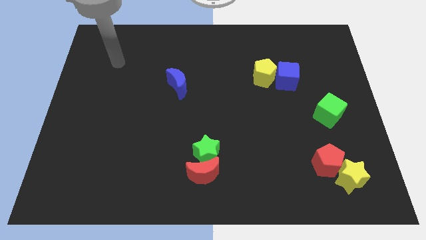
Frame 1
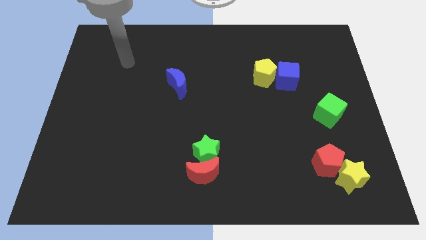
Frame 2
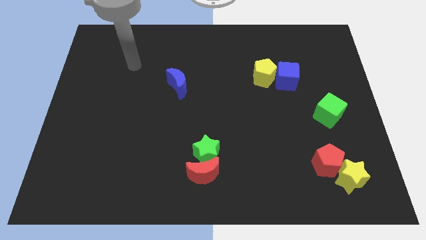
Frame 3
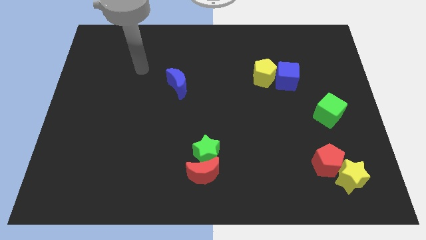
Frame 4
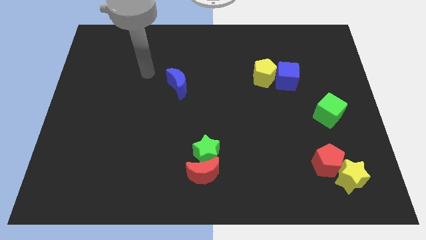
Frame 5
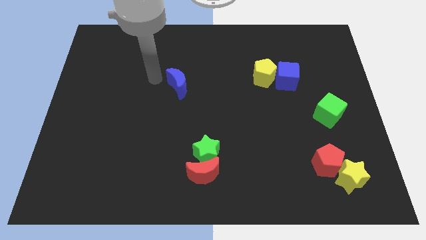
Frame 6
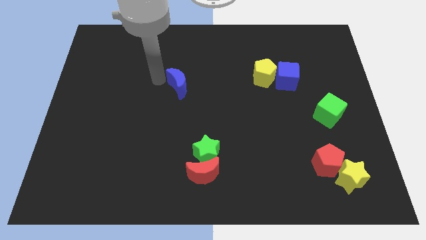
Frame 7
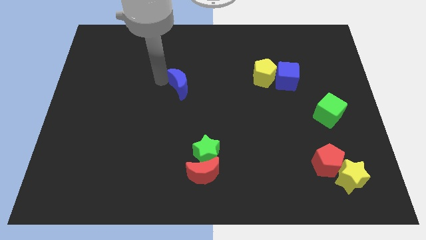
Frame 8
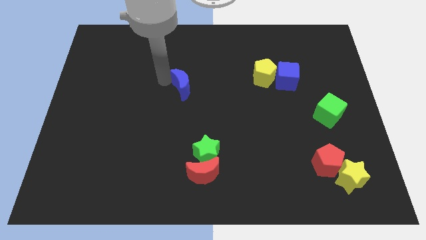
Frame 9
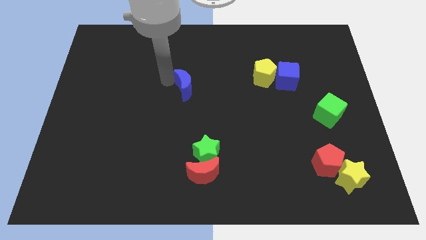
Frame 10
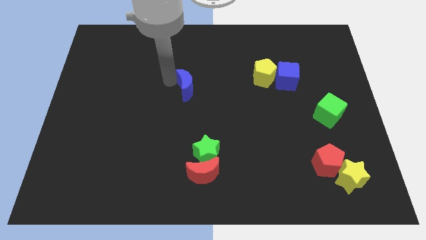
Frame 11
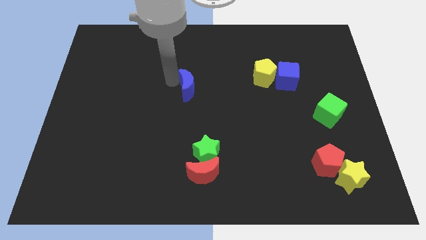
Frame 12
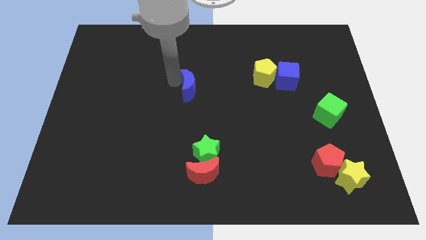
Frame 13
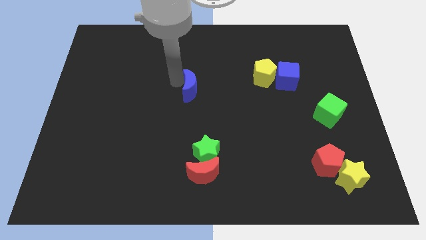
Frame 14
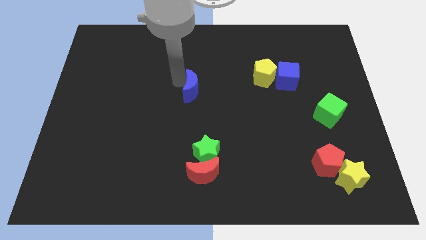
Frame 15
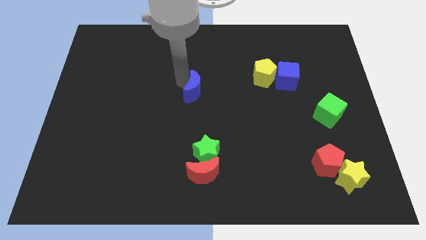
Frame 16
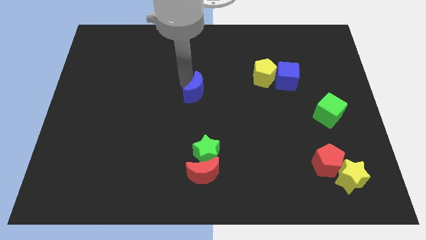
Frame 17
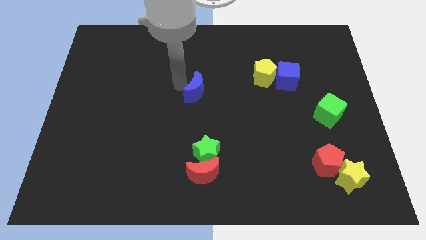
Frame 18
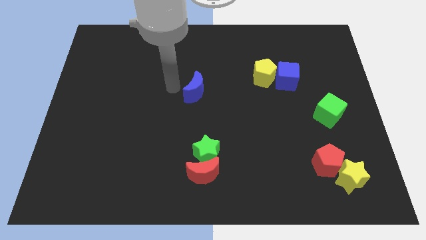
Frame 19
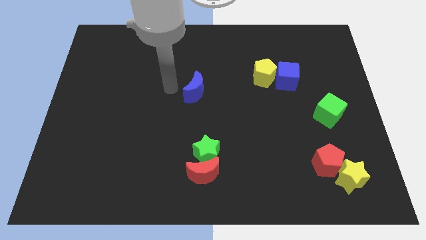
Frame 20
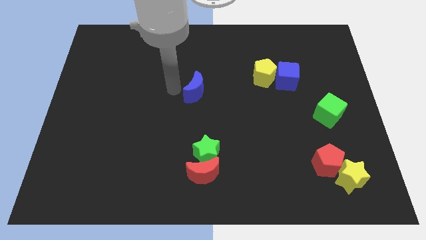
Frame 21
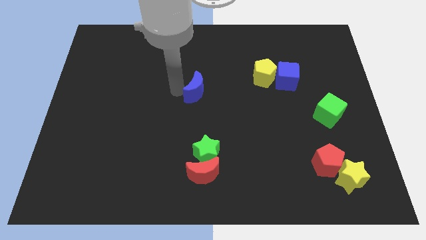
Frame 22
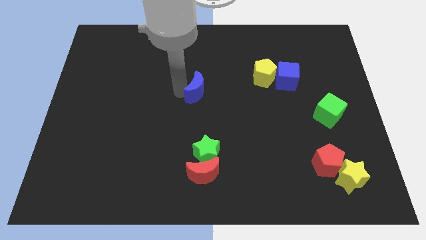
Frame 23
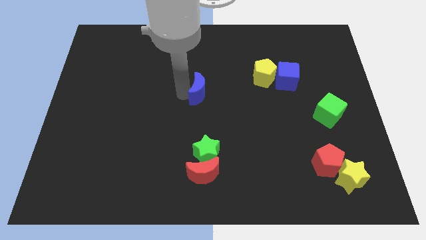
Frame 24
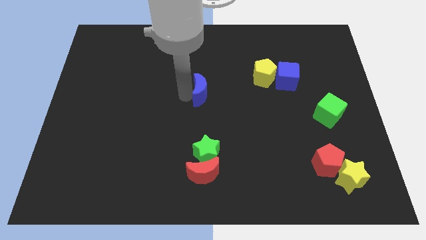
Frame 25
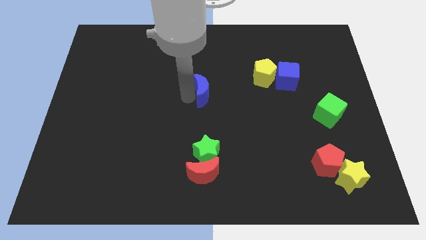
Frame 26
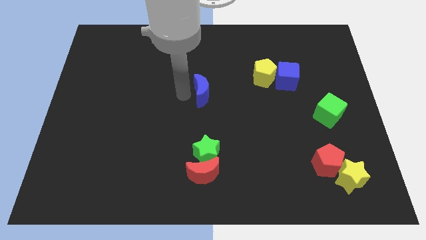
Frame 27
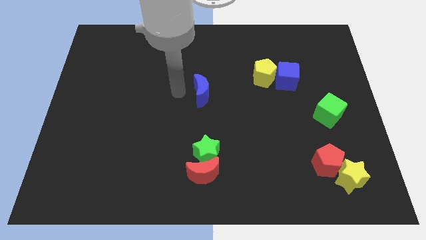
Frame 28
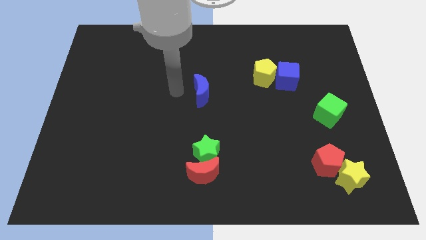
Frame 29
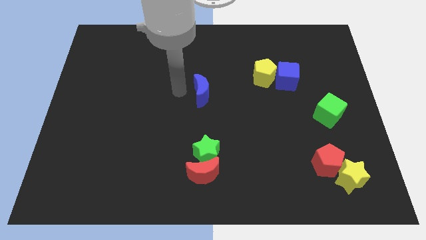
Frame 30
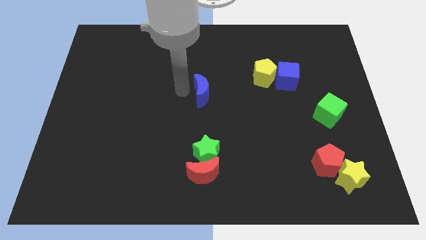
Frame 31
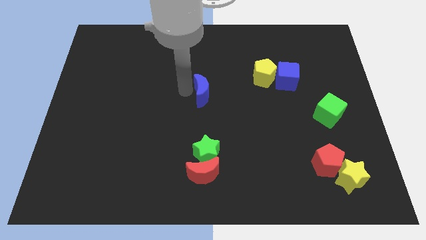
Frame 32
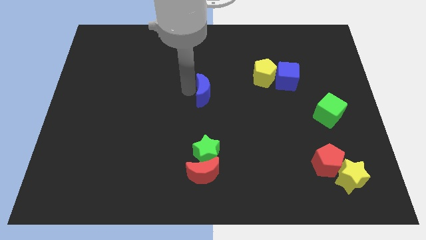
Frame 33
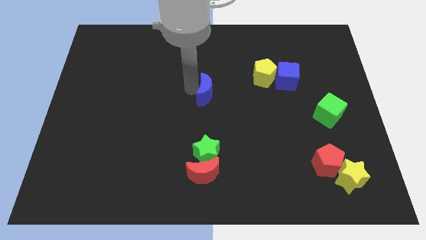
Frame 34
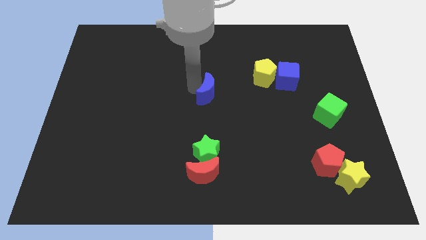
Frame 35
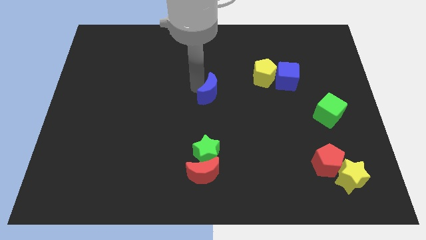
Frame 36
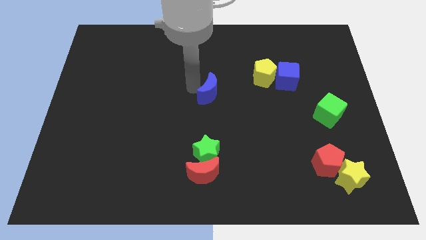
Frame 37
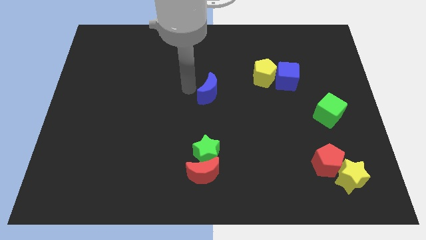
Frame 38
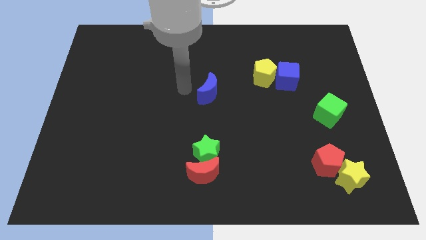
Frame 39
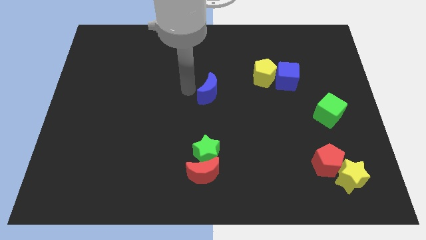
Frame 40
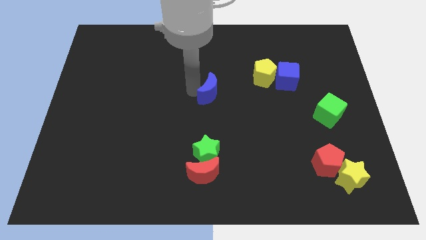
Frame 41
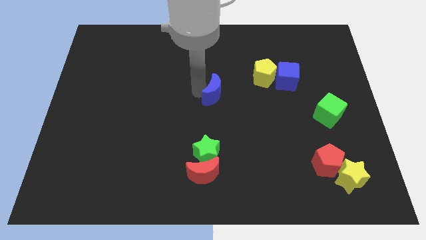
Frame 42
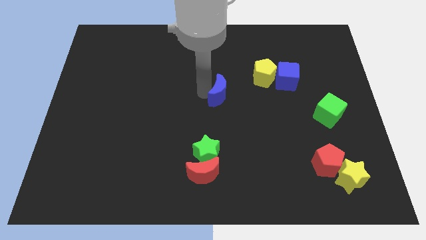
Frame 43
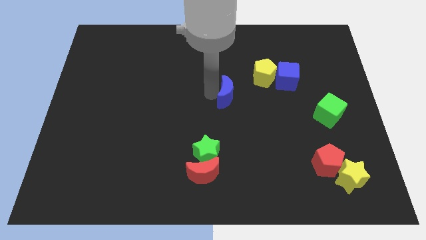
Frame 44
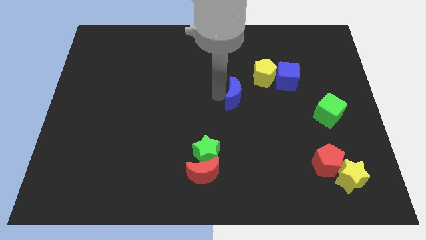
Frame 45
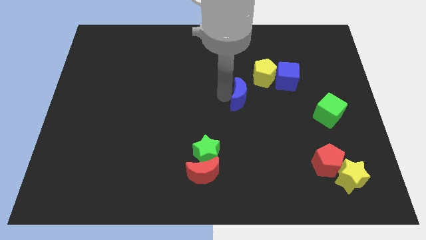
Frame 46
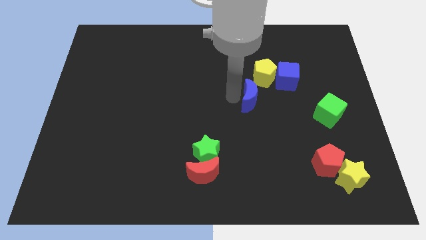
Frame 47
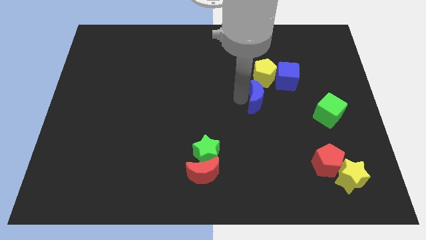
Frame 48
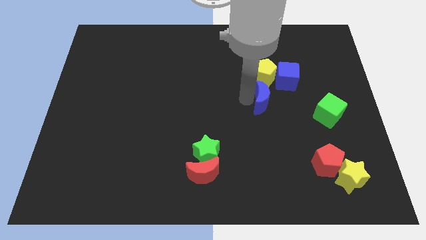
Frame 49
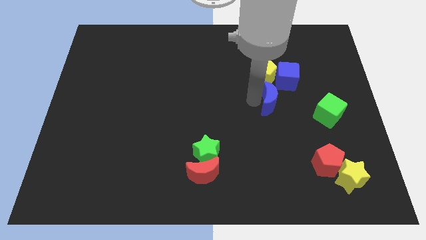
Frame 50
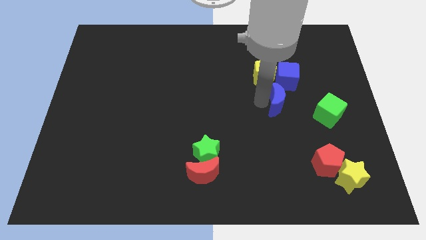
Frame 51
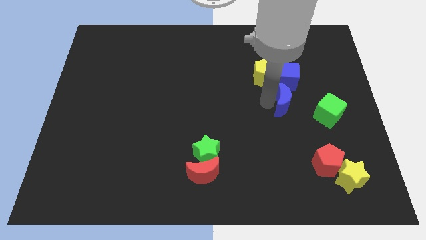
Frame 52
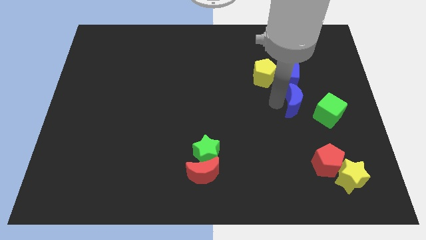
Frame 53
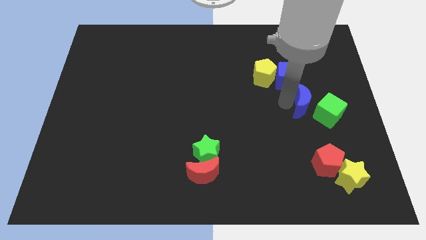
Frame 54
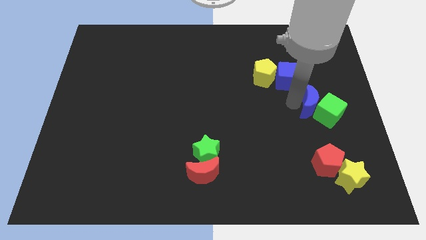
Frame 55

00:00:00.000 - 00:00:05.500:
put the blue moon close to the green cube

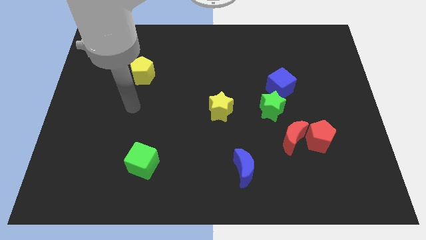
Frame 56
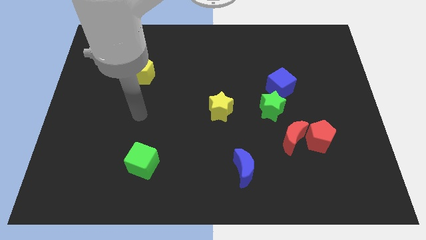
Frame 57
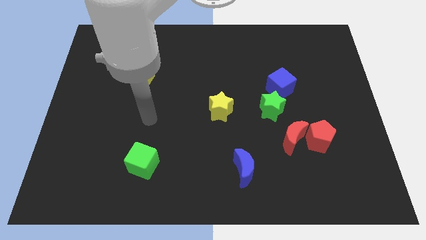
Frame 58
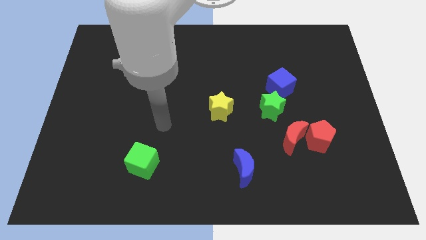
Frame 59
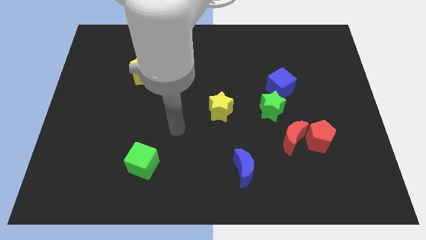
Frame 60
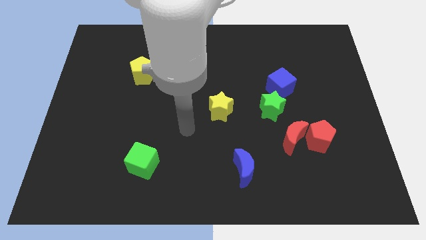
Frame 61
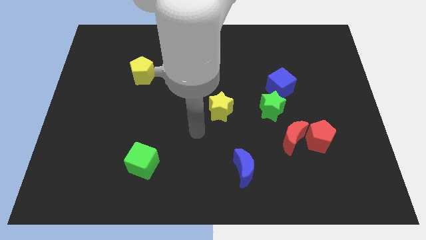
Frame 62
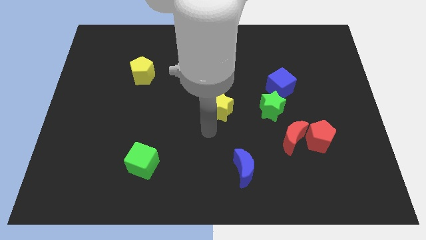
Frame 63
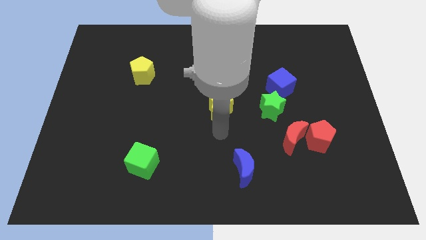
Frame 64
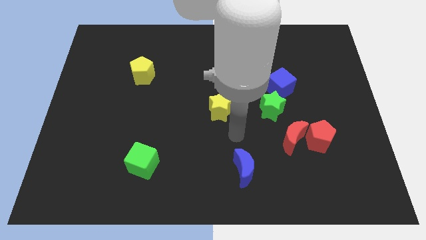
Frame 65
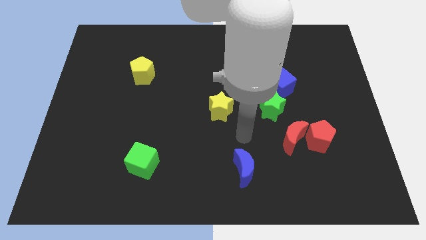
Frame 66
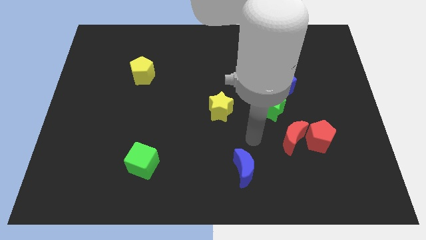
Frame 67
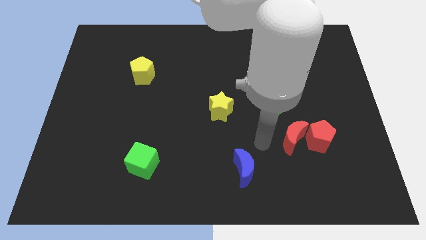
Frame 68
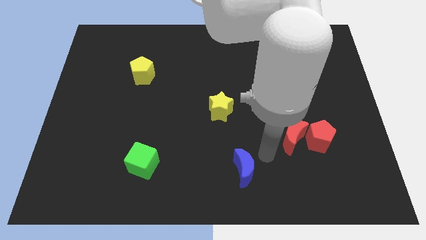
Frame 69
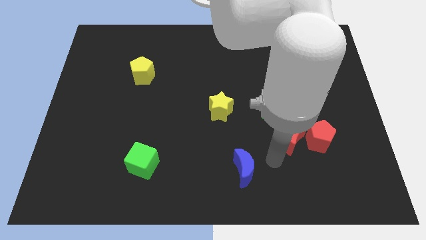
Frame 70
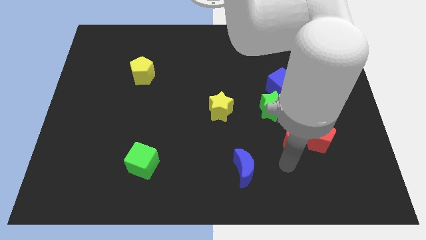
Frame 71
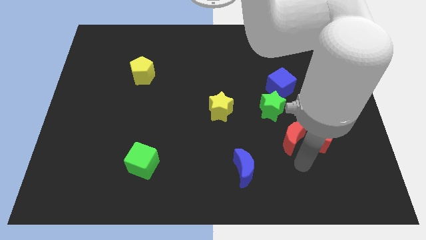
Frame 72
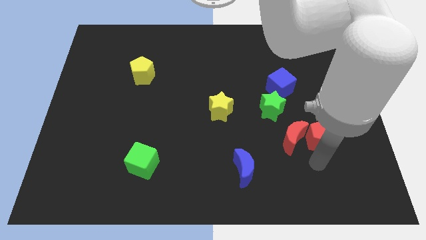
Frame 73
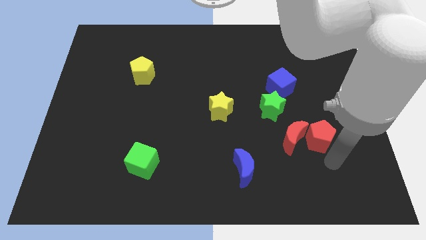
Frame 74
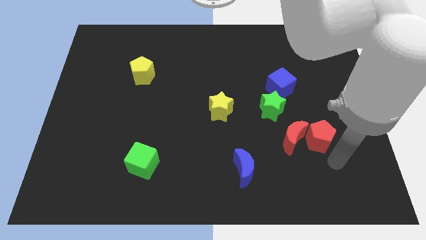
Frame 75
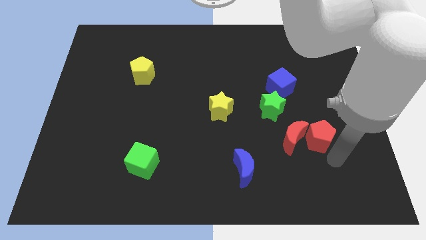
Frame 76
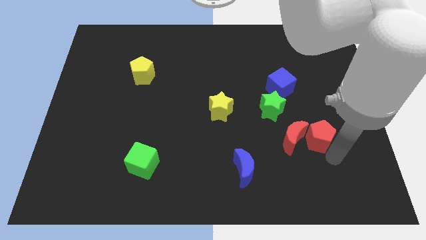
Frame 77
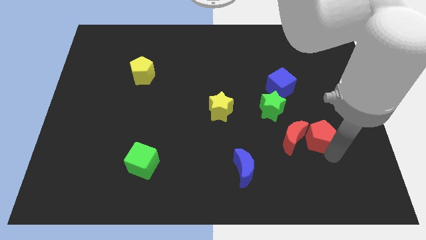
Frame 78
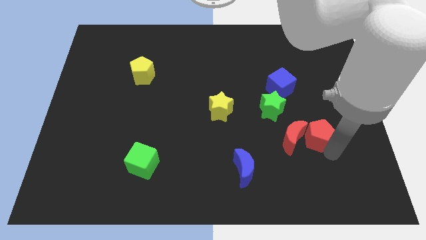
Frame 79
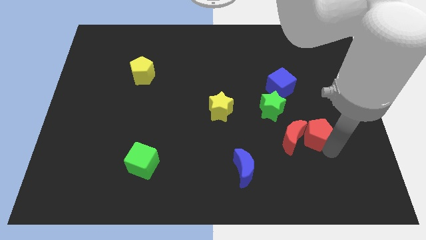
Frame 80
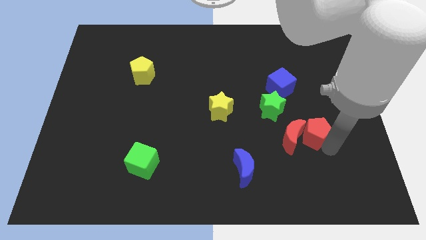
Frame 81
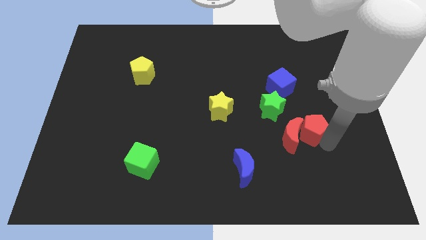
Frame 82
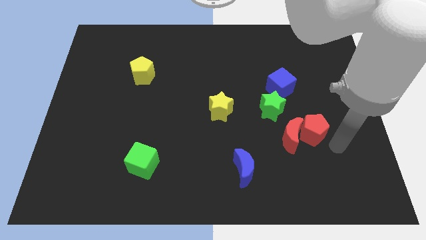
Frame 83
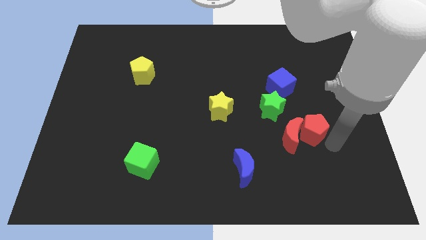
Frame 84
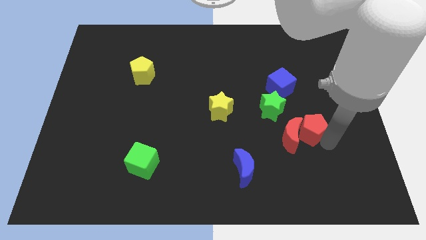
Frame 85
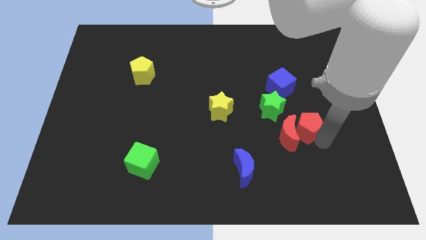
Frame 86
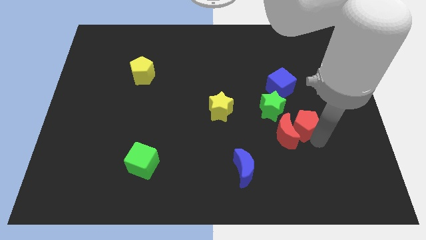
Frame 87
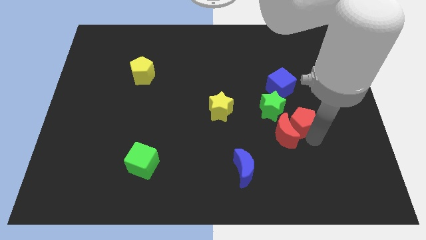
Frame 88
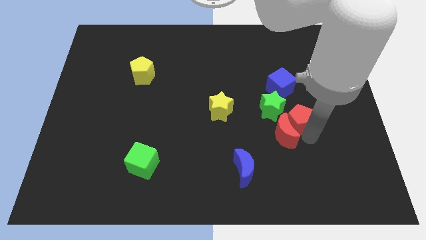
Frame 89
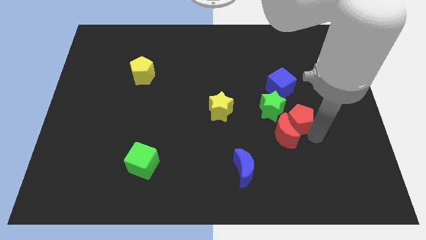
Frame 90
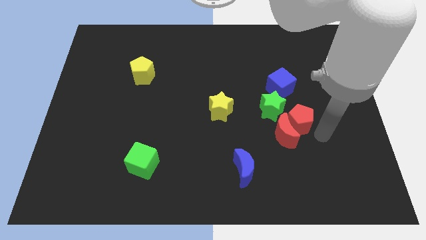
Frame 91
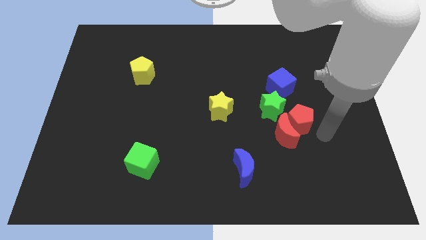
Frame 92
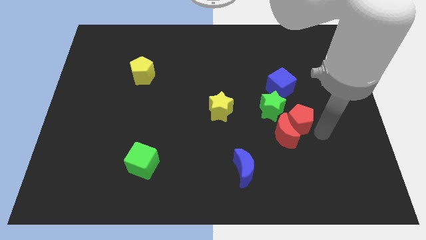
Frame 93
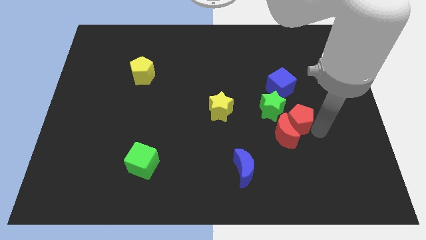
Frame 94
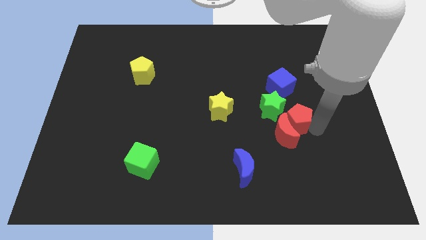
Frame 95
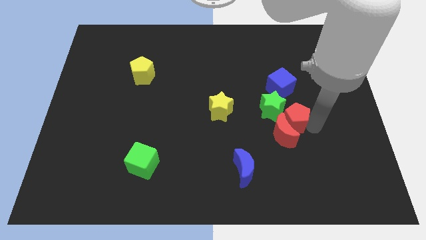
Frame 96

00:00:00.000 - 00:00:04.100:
slide the red pentagon next to the green star
